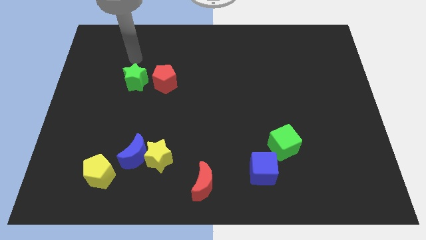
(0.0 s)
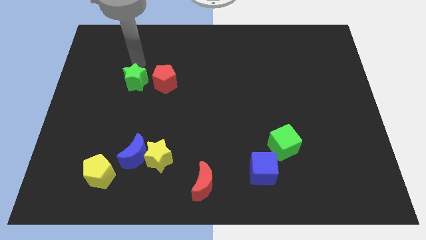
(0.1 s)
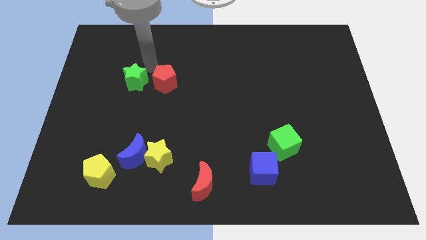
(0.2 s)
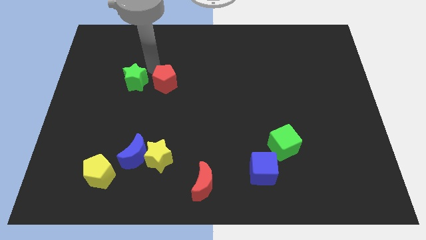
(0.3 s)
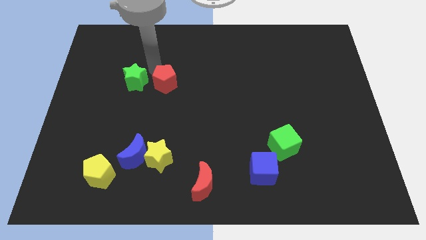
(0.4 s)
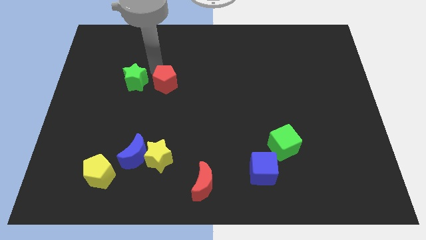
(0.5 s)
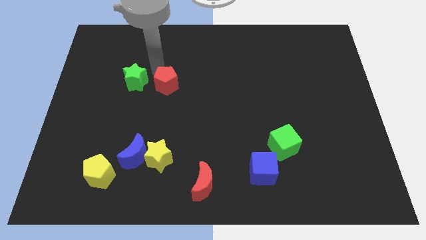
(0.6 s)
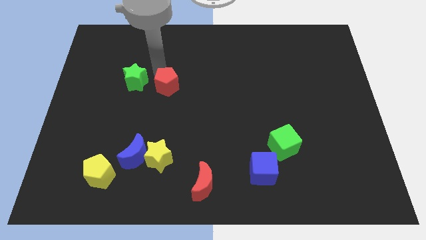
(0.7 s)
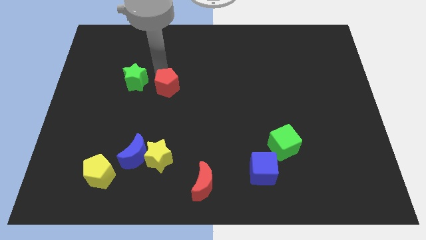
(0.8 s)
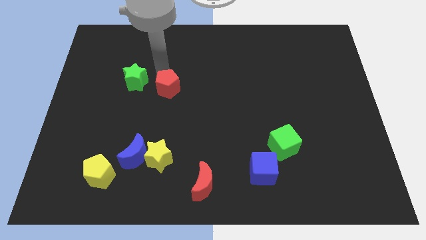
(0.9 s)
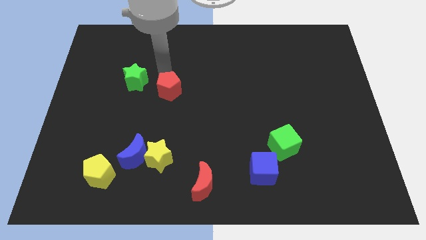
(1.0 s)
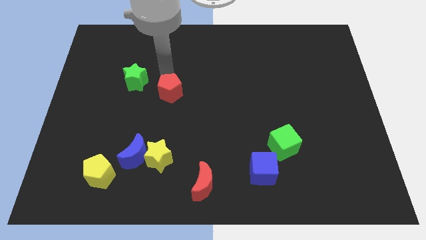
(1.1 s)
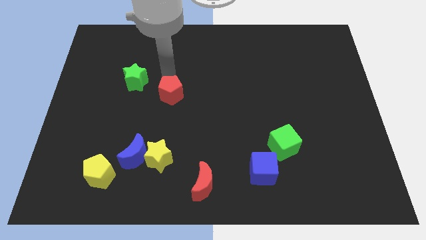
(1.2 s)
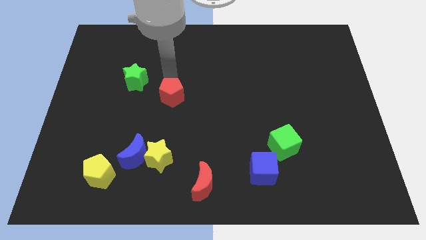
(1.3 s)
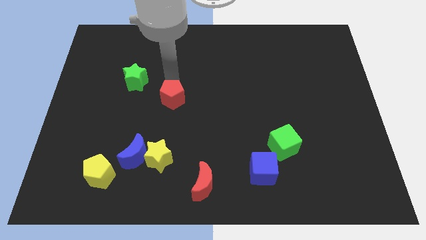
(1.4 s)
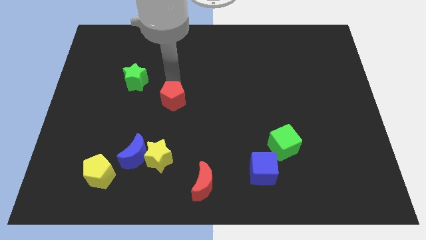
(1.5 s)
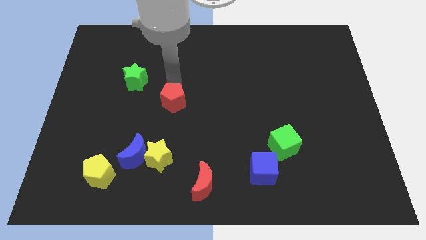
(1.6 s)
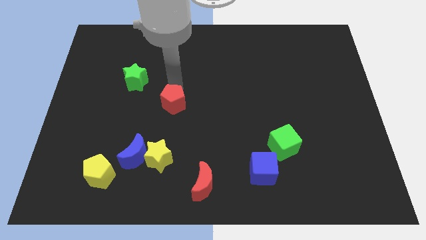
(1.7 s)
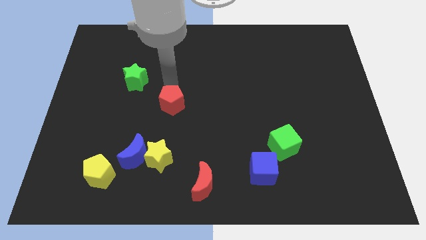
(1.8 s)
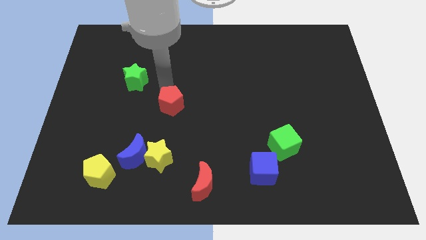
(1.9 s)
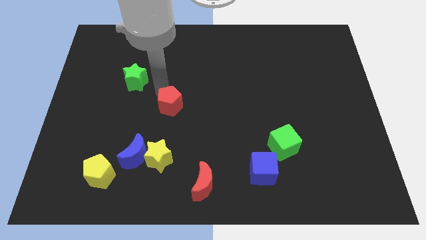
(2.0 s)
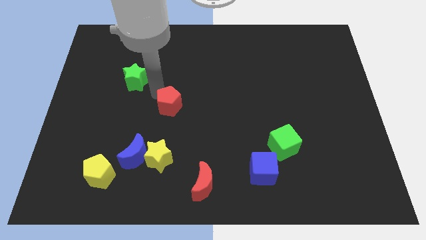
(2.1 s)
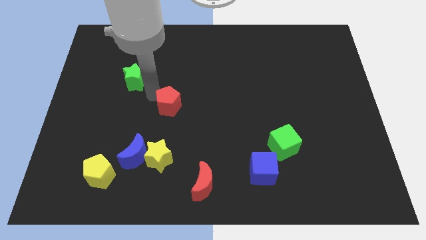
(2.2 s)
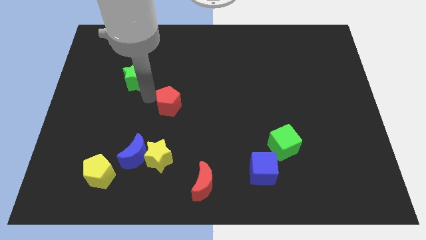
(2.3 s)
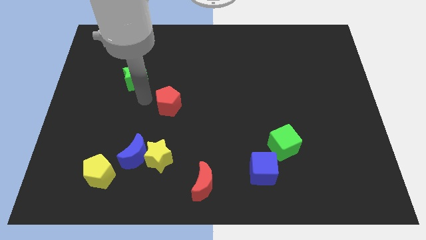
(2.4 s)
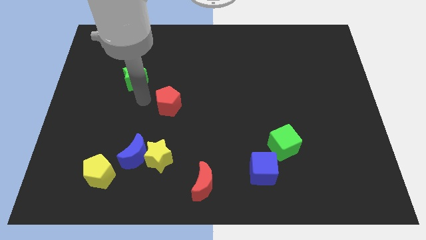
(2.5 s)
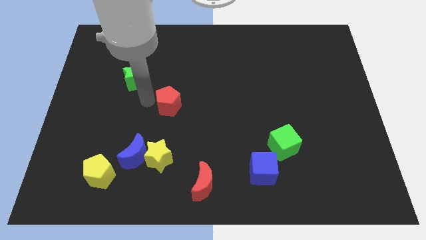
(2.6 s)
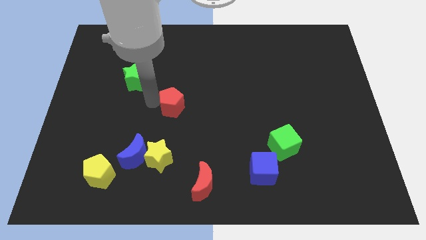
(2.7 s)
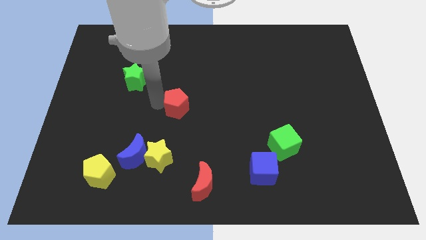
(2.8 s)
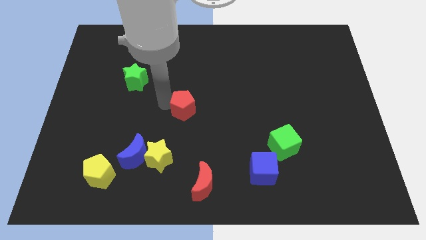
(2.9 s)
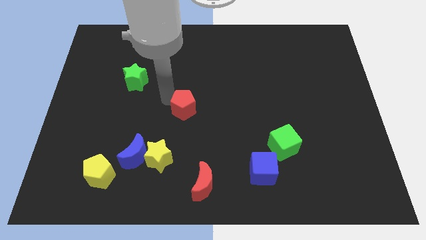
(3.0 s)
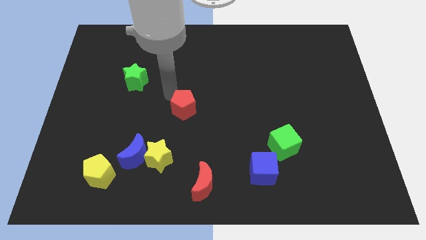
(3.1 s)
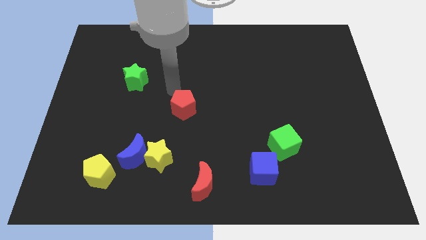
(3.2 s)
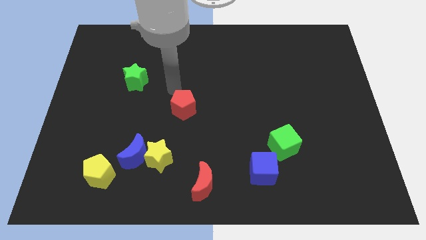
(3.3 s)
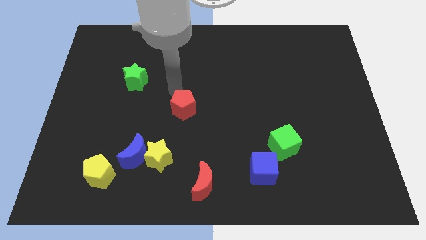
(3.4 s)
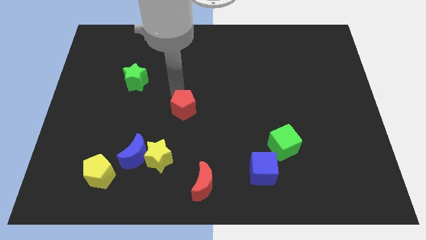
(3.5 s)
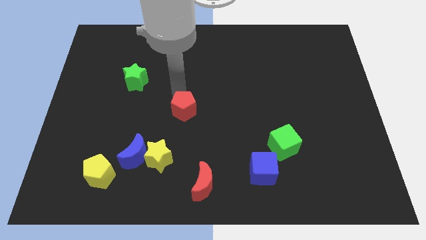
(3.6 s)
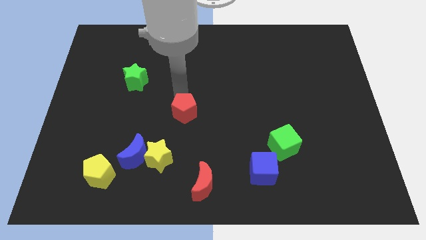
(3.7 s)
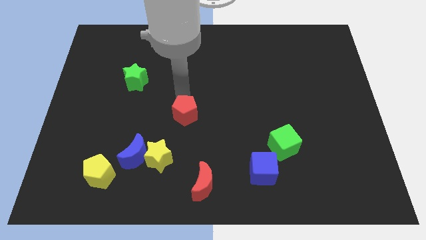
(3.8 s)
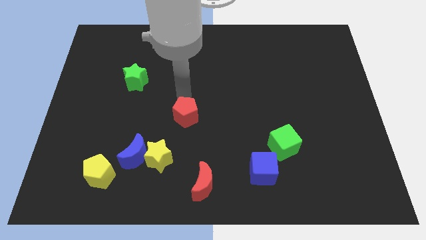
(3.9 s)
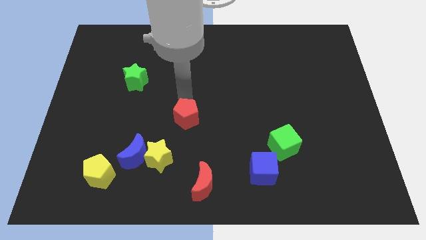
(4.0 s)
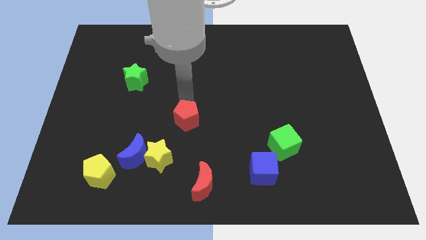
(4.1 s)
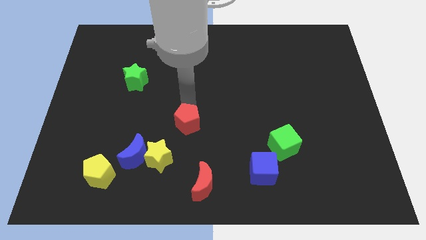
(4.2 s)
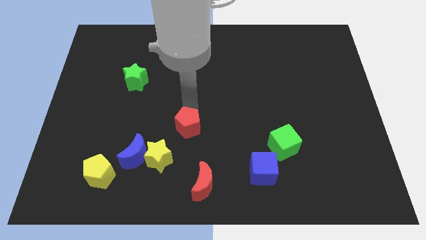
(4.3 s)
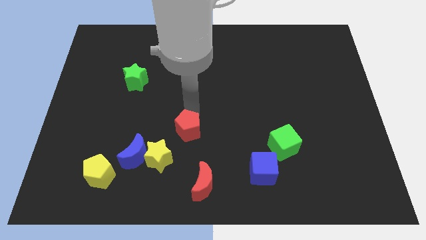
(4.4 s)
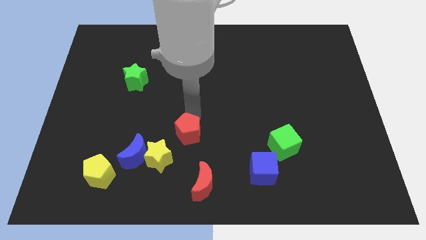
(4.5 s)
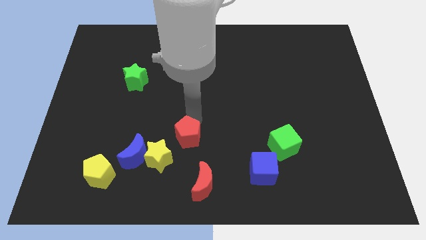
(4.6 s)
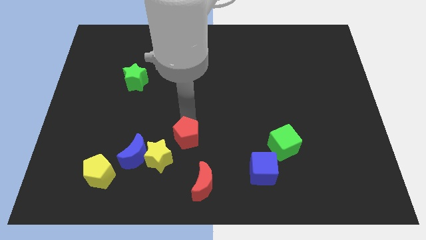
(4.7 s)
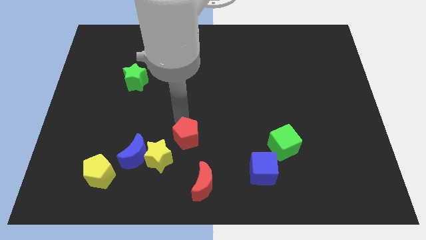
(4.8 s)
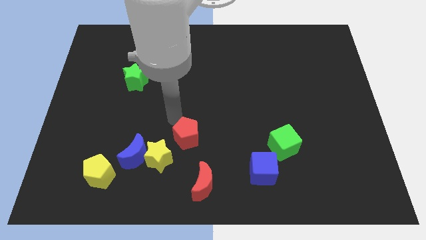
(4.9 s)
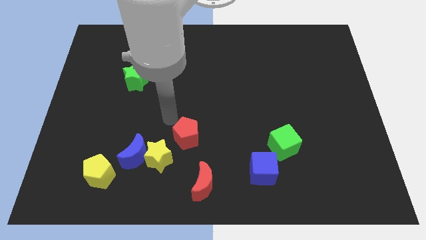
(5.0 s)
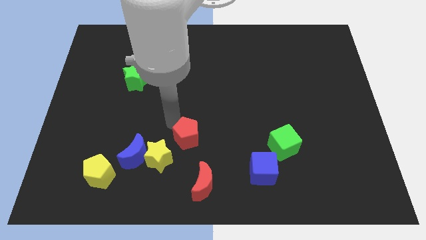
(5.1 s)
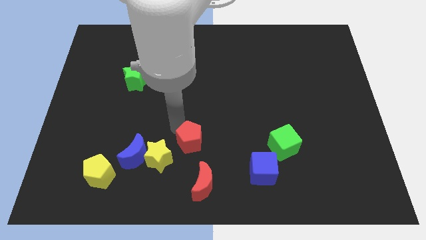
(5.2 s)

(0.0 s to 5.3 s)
move the red pentagon right of the yellow star

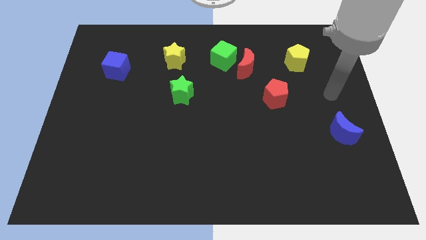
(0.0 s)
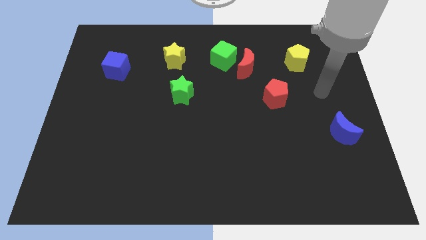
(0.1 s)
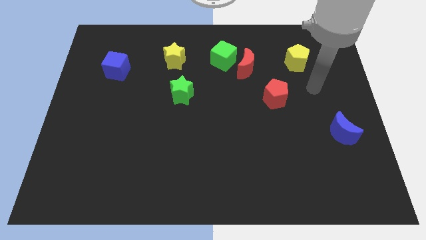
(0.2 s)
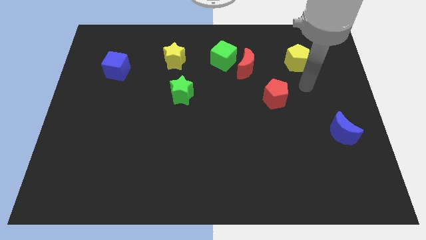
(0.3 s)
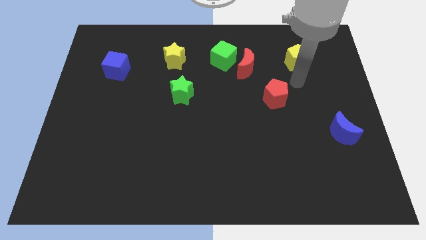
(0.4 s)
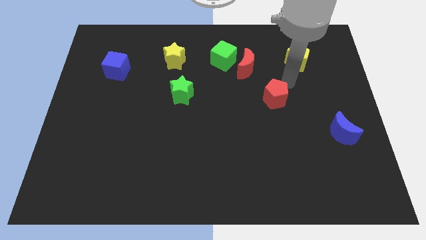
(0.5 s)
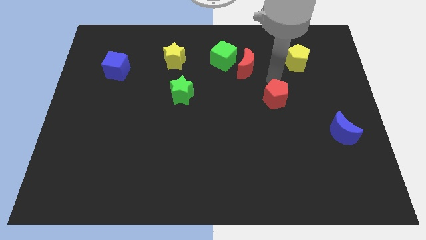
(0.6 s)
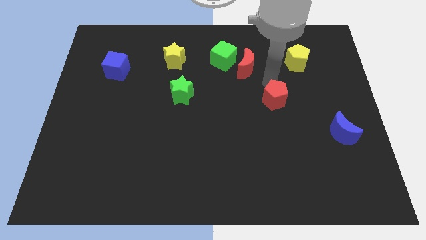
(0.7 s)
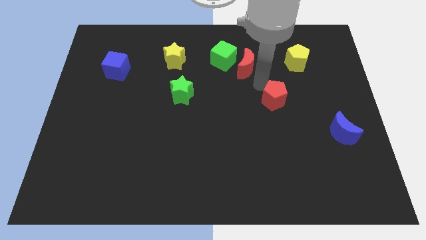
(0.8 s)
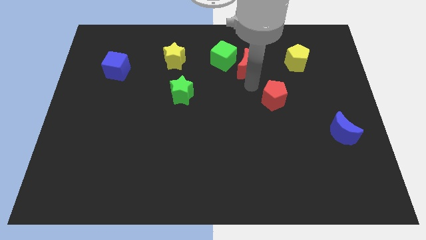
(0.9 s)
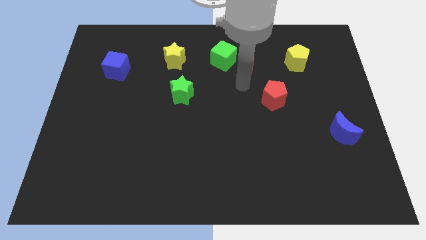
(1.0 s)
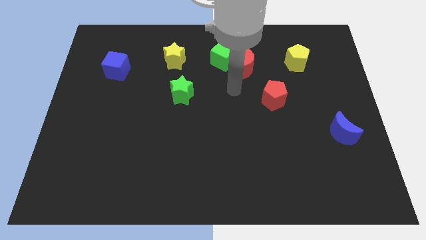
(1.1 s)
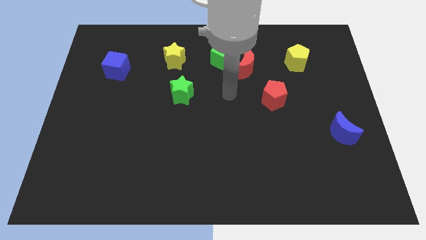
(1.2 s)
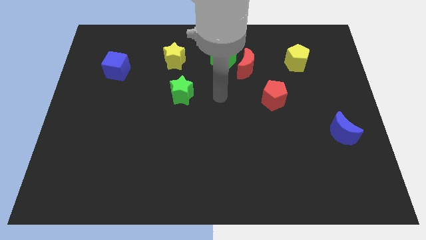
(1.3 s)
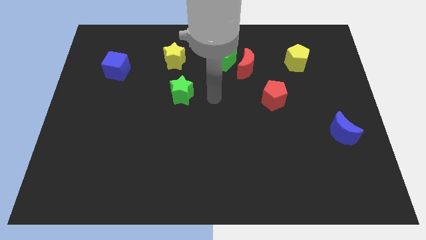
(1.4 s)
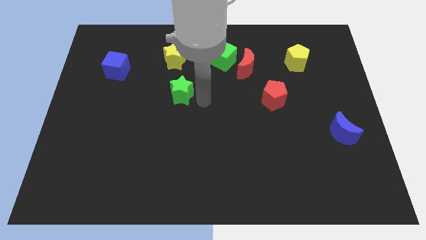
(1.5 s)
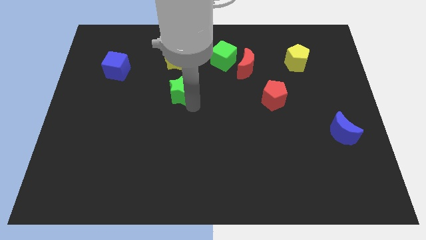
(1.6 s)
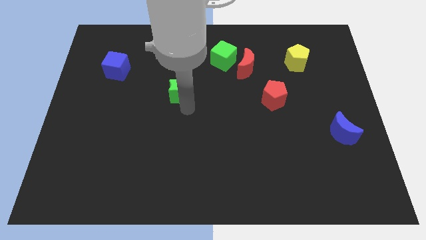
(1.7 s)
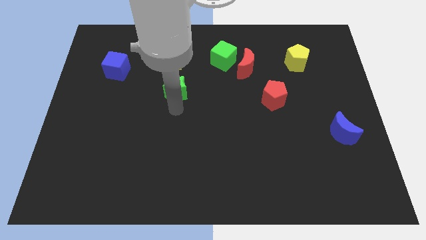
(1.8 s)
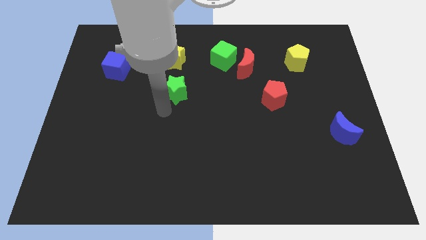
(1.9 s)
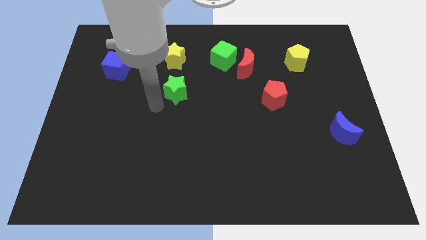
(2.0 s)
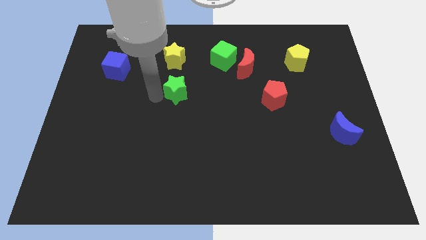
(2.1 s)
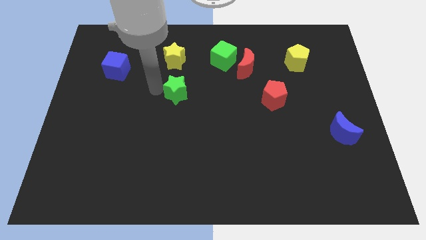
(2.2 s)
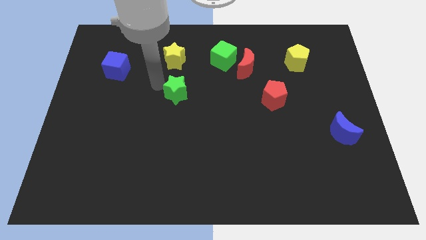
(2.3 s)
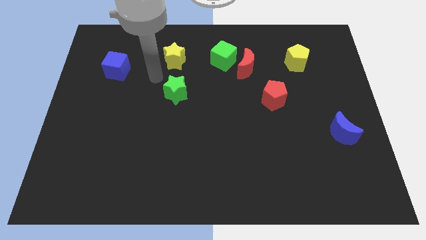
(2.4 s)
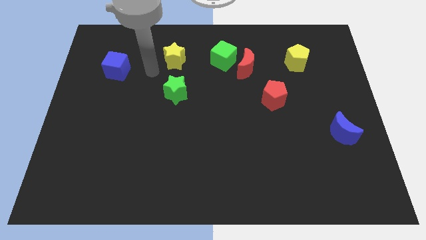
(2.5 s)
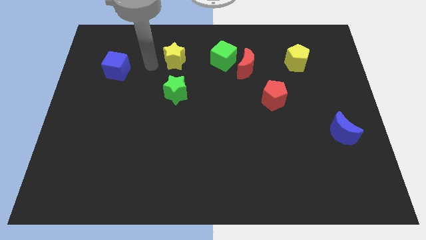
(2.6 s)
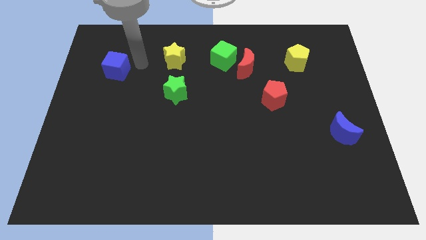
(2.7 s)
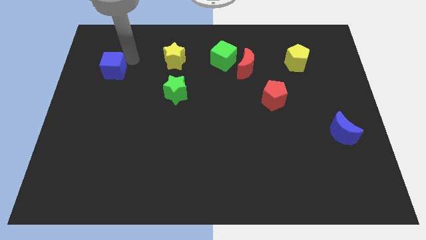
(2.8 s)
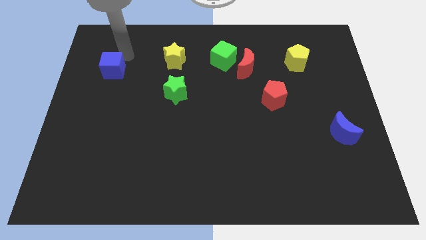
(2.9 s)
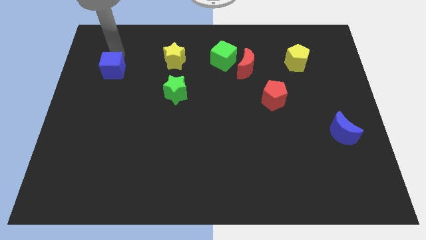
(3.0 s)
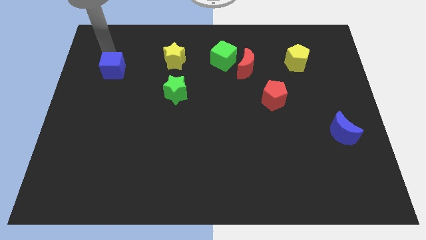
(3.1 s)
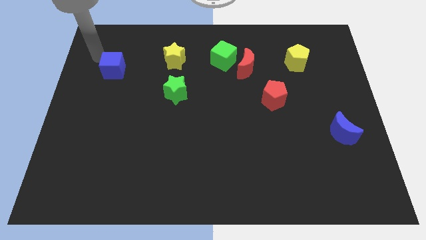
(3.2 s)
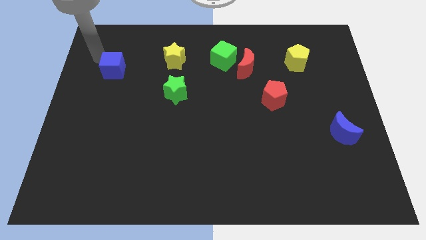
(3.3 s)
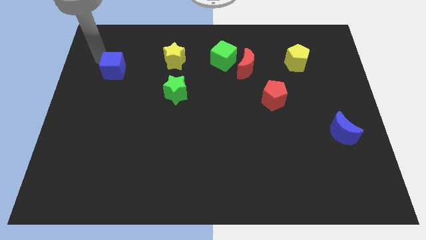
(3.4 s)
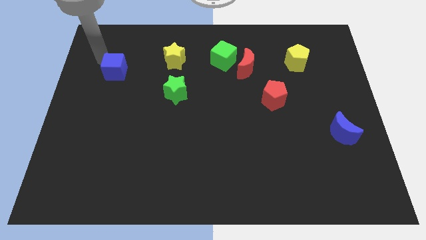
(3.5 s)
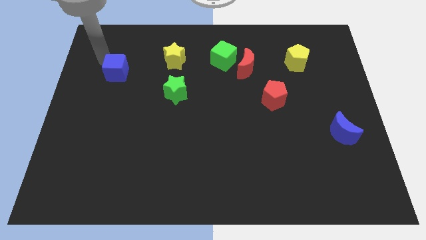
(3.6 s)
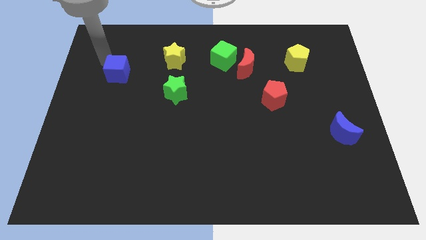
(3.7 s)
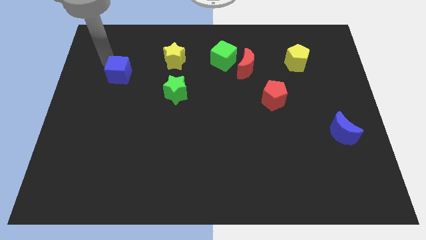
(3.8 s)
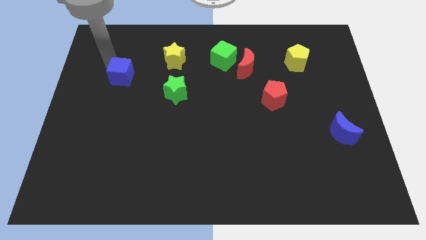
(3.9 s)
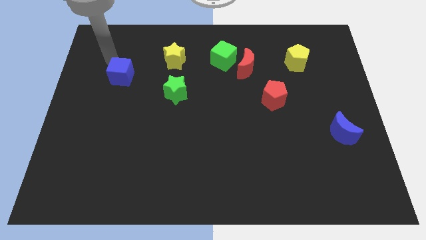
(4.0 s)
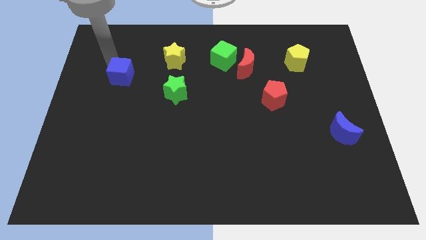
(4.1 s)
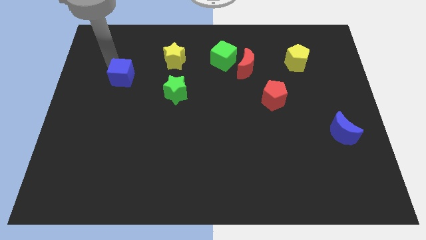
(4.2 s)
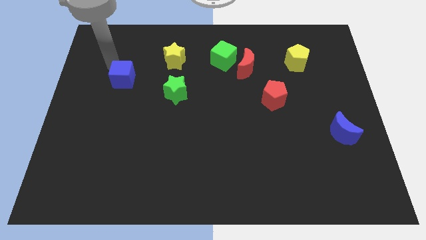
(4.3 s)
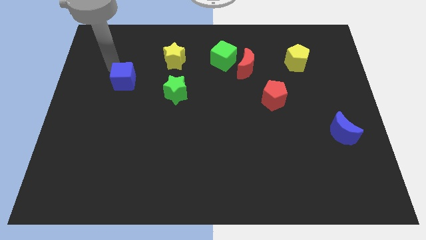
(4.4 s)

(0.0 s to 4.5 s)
put the blue cube to the left side of the green star
